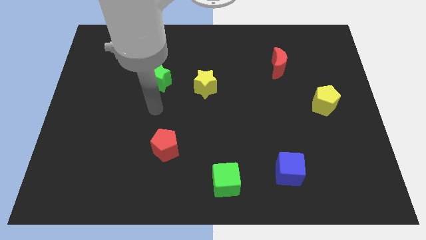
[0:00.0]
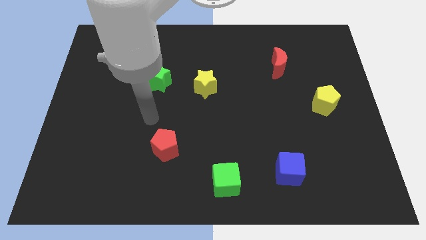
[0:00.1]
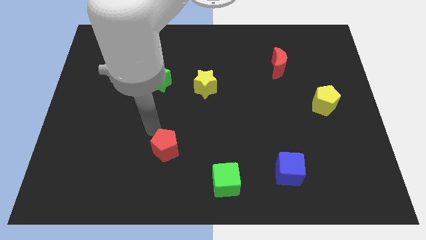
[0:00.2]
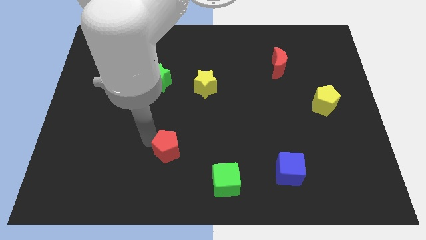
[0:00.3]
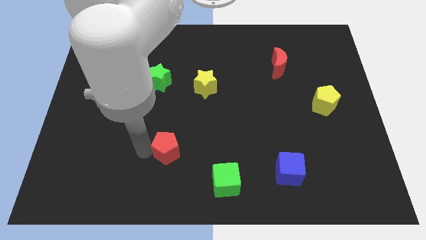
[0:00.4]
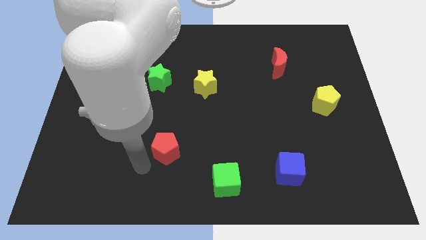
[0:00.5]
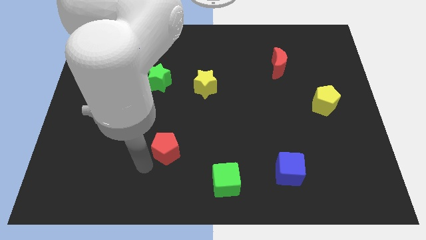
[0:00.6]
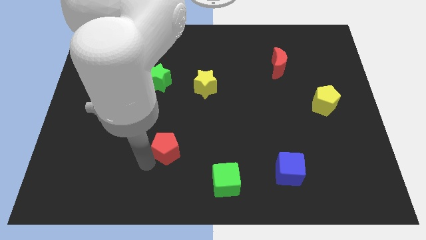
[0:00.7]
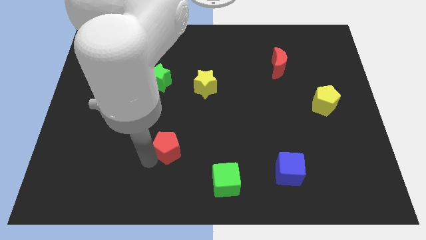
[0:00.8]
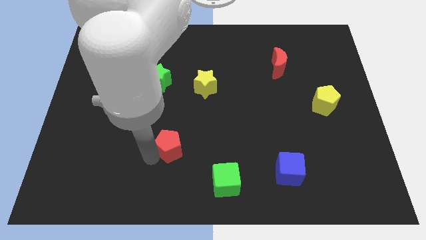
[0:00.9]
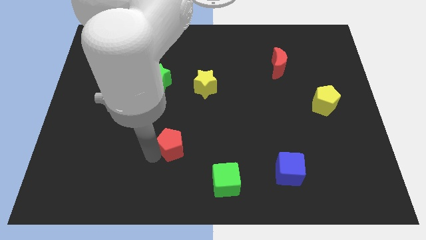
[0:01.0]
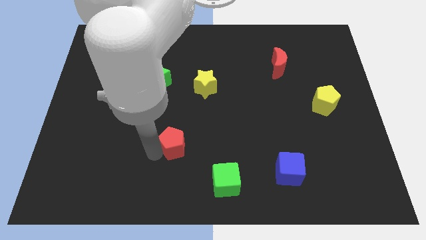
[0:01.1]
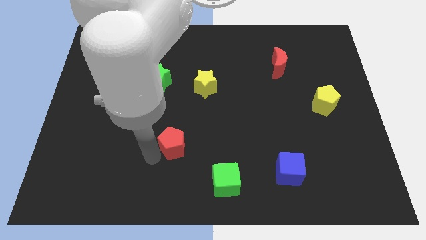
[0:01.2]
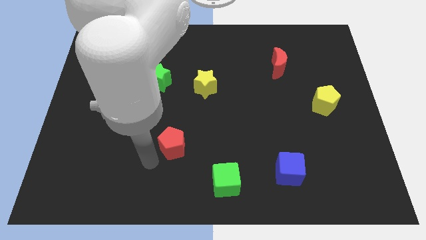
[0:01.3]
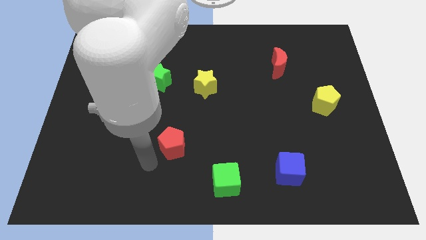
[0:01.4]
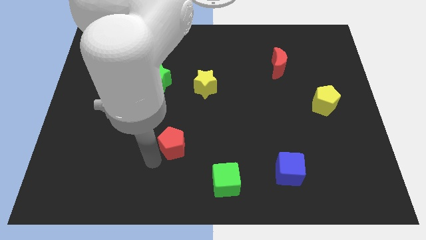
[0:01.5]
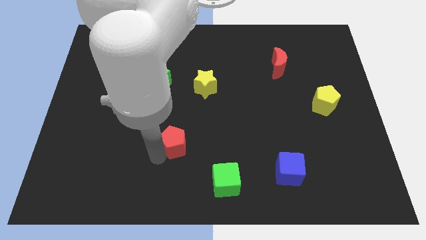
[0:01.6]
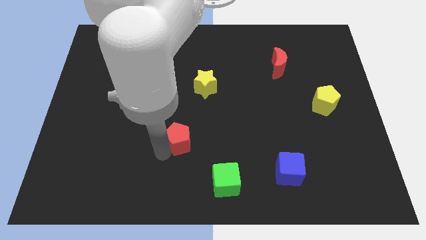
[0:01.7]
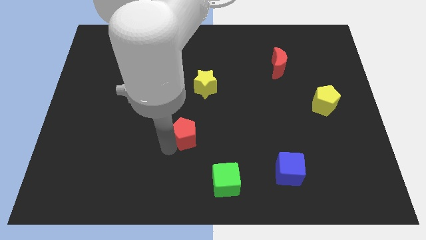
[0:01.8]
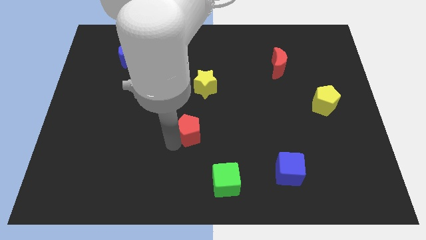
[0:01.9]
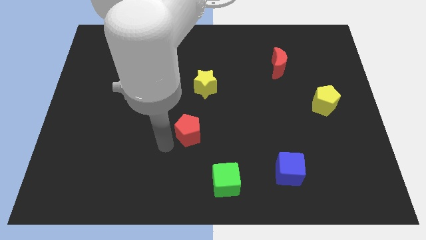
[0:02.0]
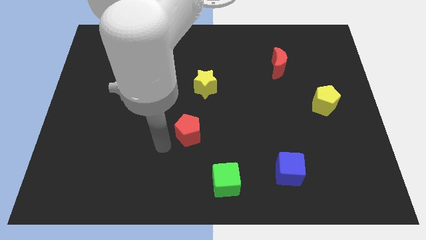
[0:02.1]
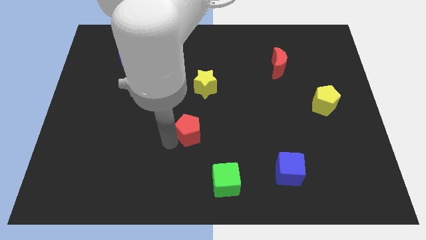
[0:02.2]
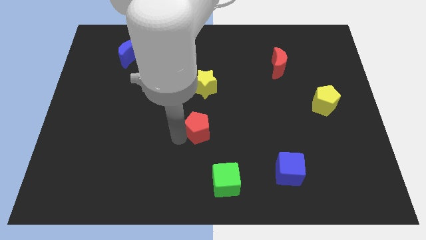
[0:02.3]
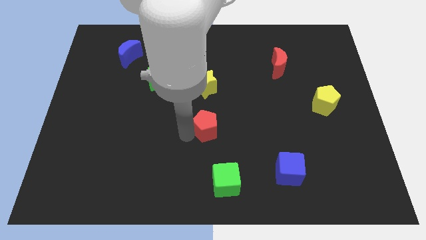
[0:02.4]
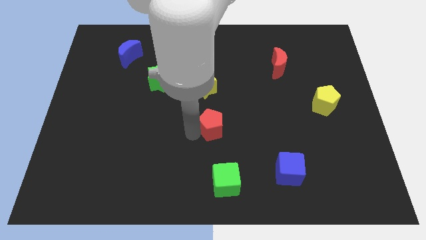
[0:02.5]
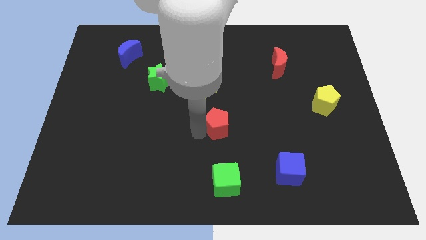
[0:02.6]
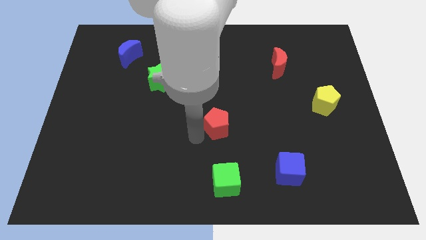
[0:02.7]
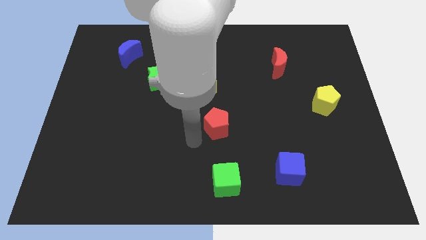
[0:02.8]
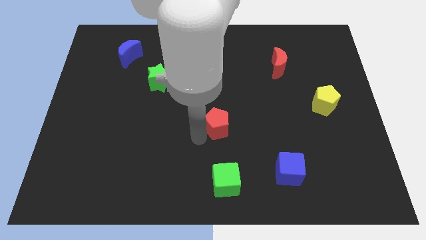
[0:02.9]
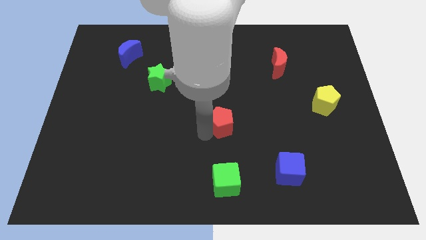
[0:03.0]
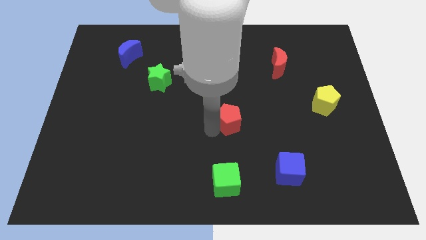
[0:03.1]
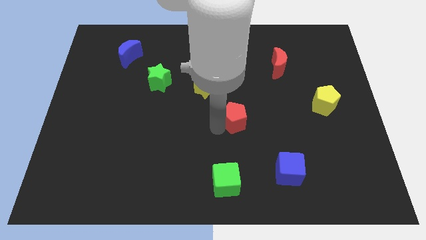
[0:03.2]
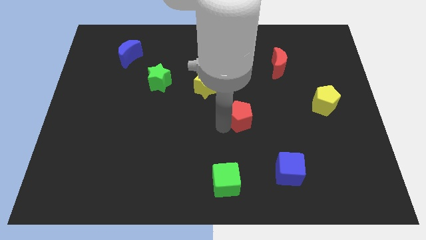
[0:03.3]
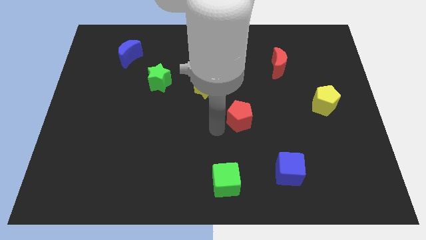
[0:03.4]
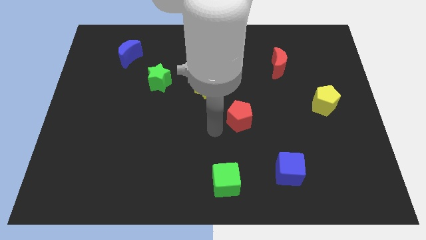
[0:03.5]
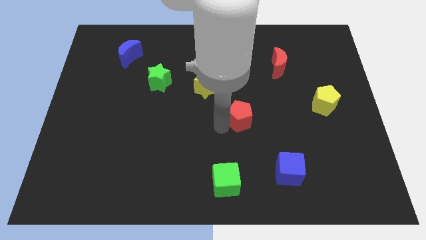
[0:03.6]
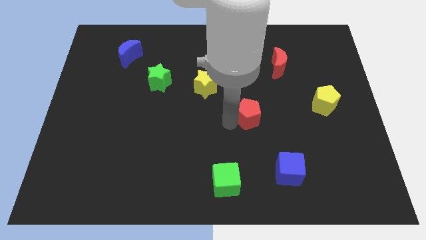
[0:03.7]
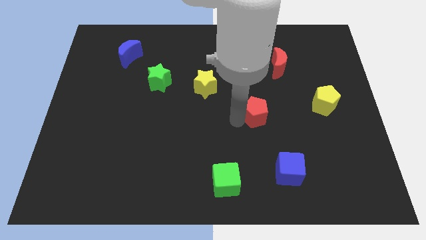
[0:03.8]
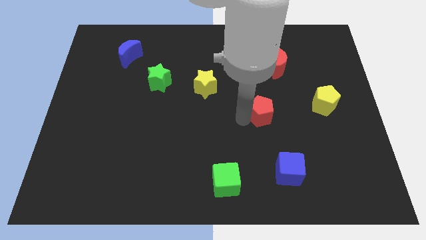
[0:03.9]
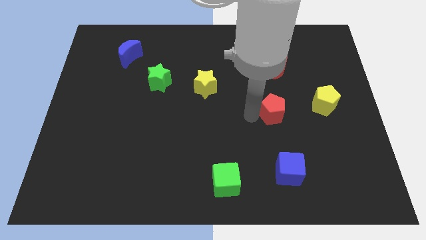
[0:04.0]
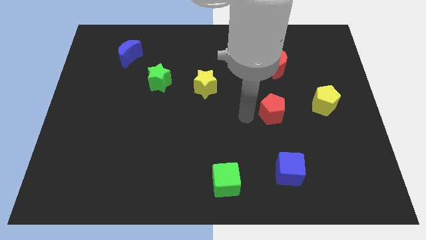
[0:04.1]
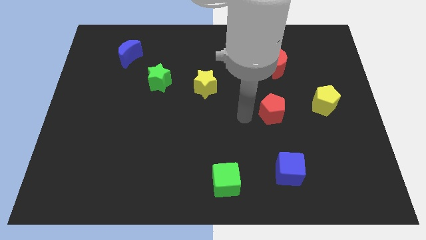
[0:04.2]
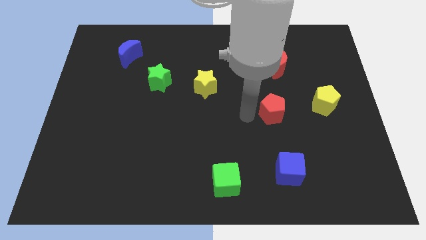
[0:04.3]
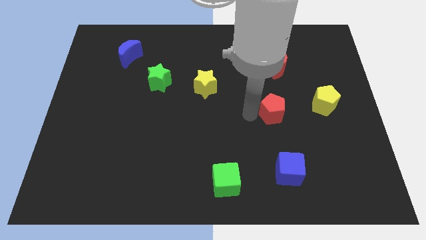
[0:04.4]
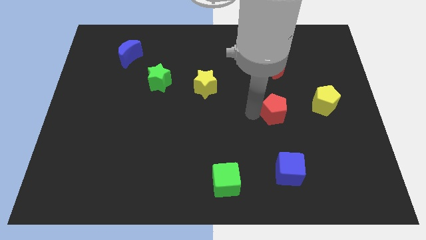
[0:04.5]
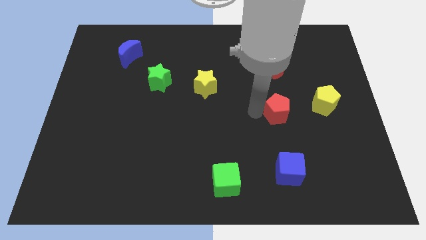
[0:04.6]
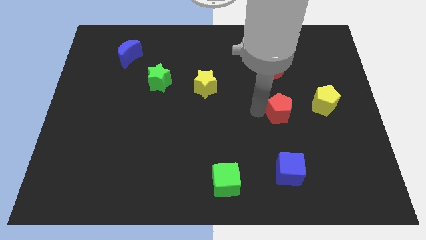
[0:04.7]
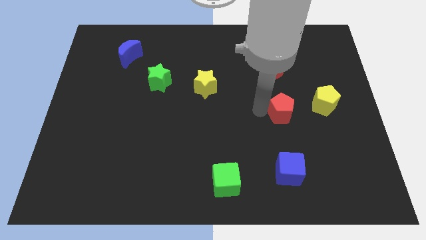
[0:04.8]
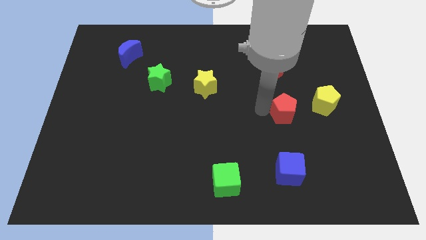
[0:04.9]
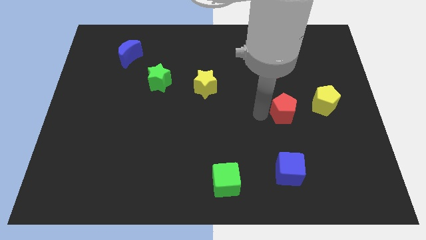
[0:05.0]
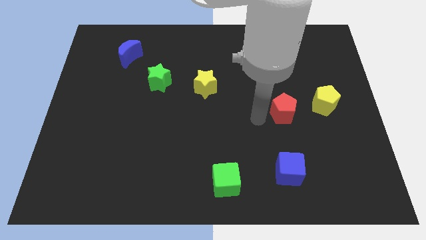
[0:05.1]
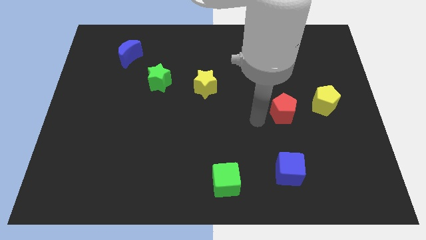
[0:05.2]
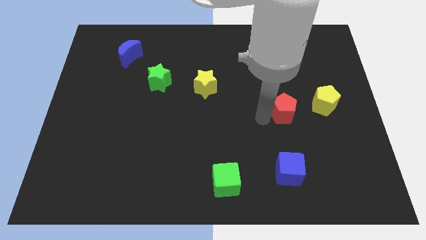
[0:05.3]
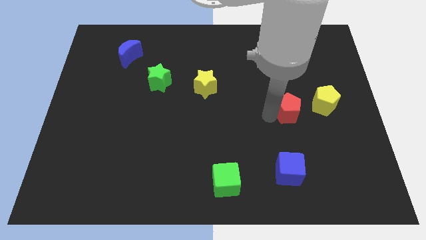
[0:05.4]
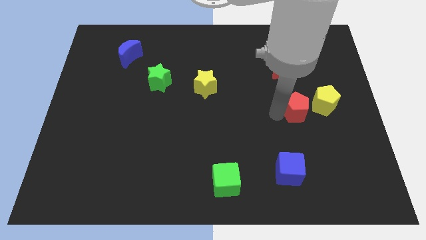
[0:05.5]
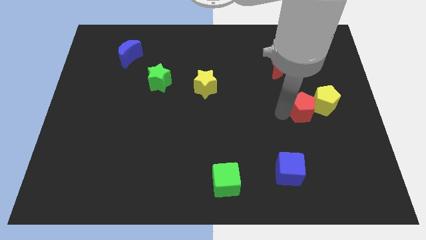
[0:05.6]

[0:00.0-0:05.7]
slide the red pentagon to the yellow pentagon
